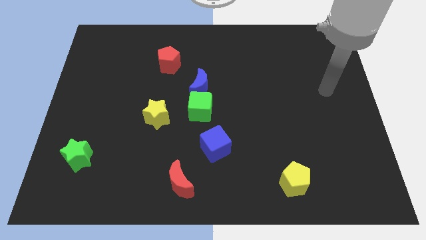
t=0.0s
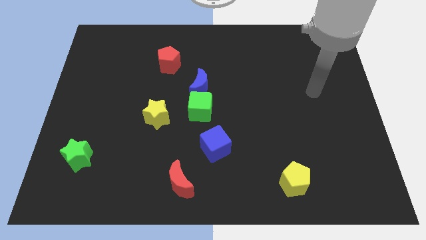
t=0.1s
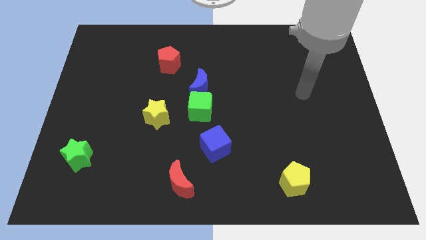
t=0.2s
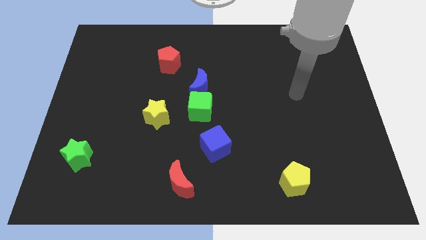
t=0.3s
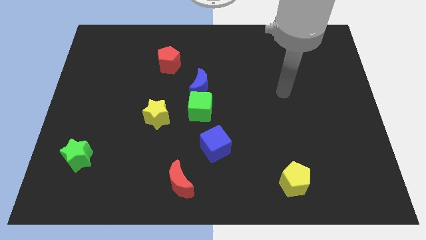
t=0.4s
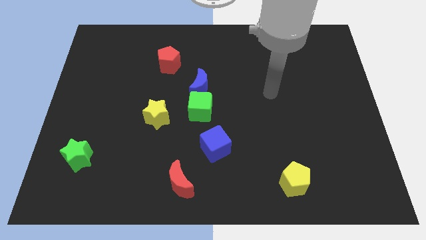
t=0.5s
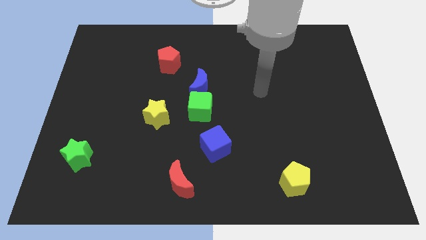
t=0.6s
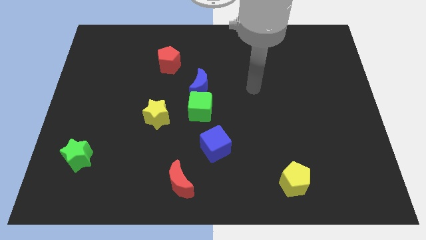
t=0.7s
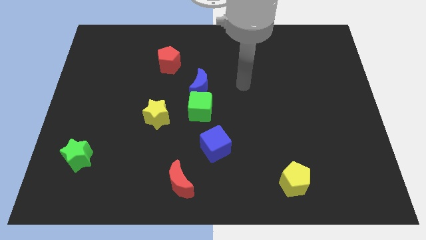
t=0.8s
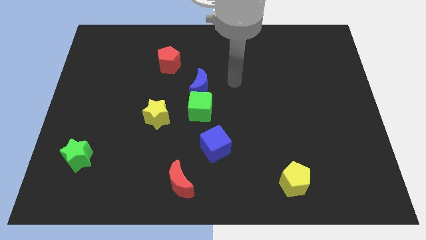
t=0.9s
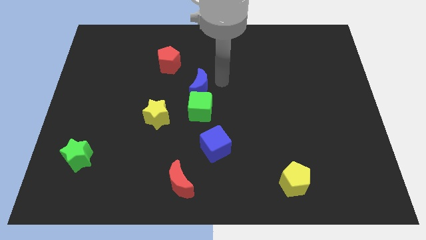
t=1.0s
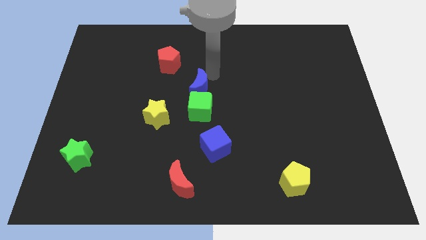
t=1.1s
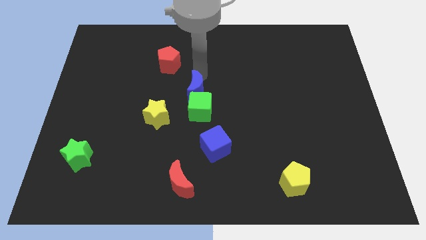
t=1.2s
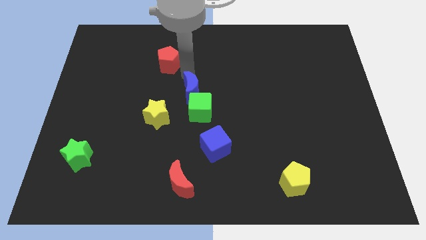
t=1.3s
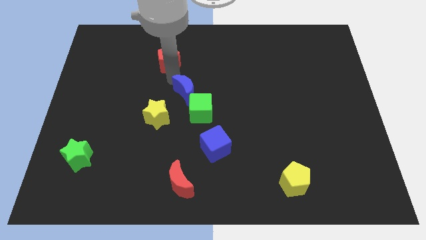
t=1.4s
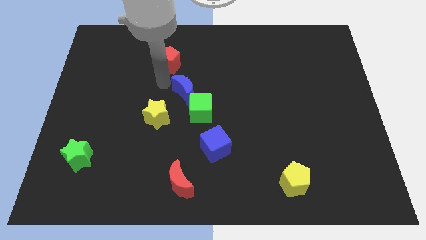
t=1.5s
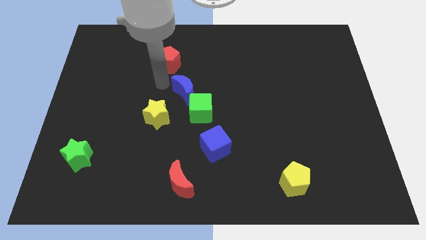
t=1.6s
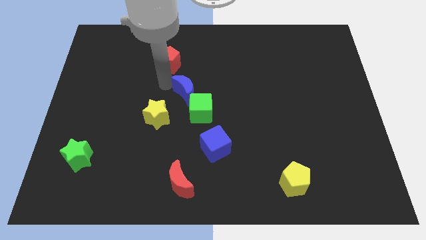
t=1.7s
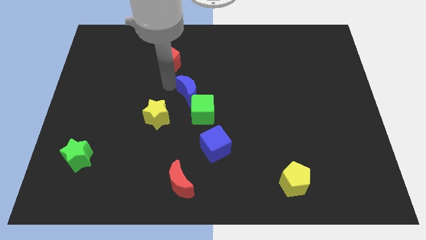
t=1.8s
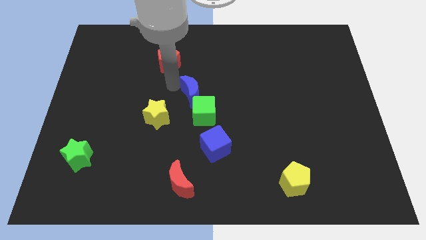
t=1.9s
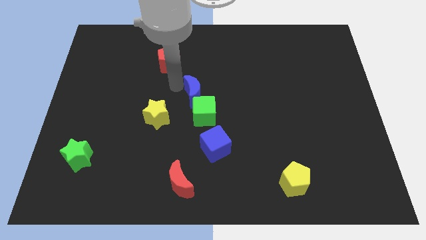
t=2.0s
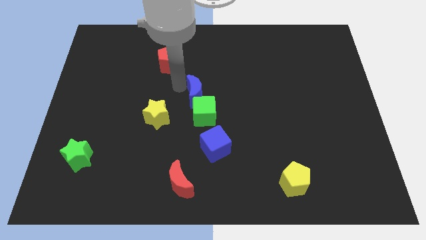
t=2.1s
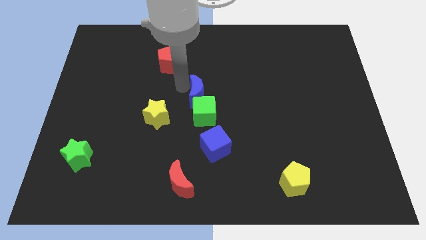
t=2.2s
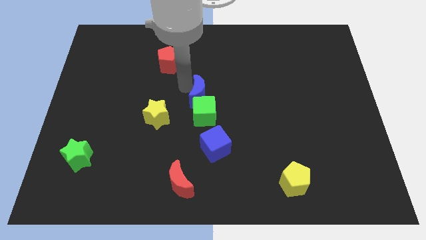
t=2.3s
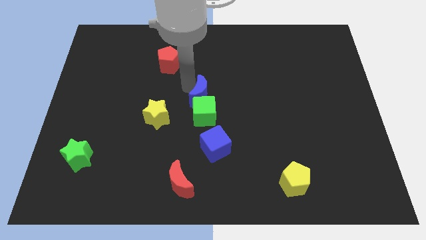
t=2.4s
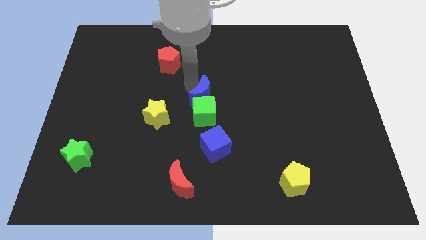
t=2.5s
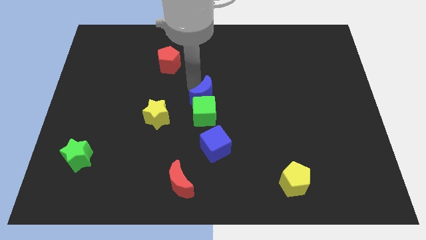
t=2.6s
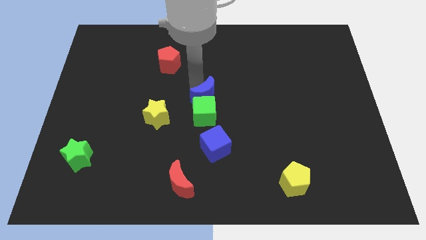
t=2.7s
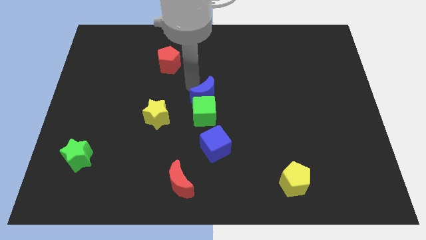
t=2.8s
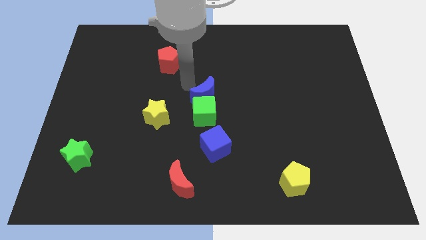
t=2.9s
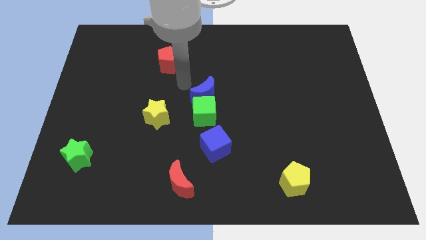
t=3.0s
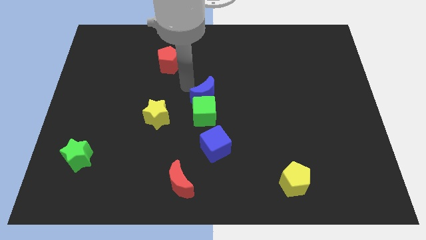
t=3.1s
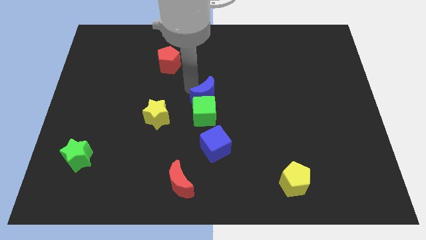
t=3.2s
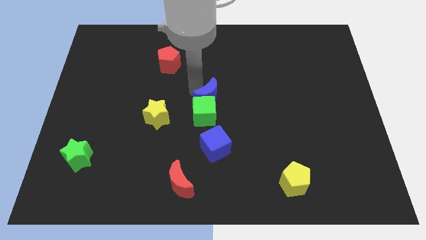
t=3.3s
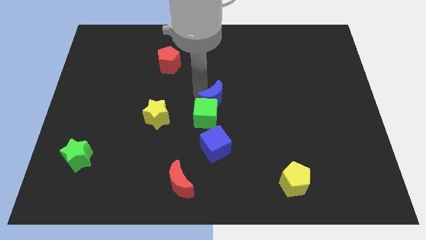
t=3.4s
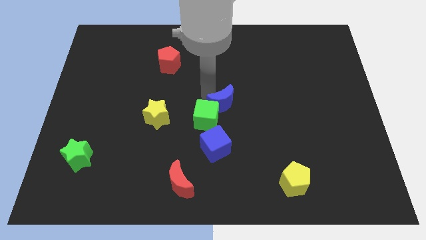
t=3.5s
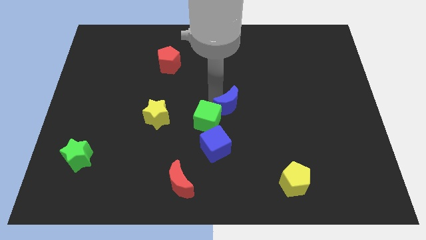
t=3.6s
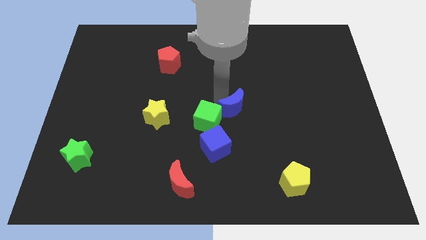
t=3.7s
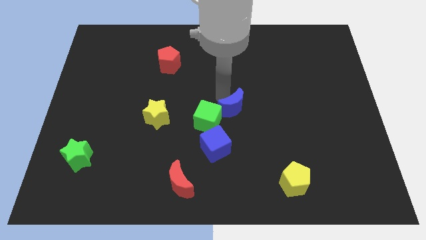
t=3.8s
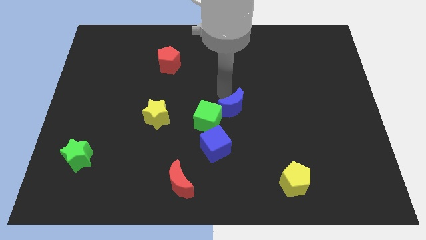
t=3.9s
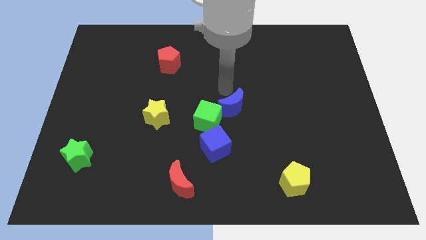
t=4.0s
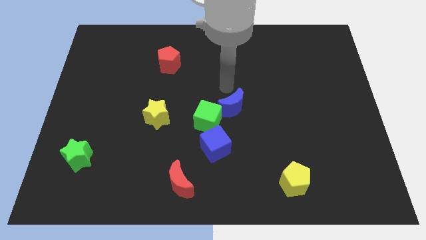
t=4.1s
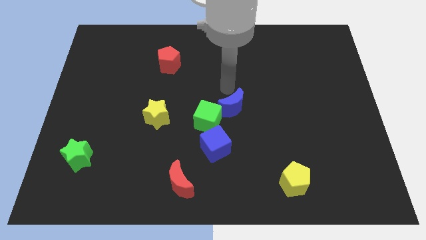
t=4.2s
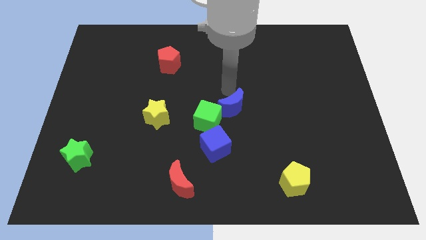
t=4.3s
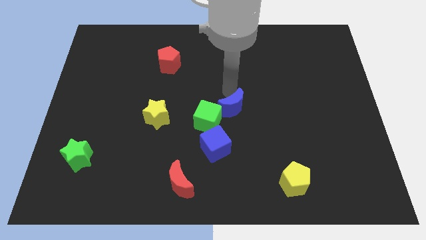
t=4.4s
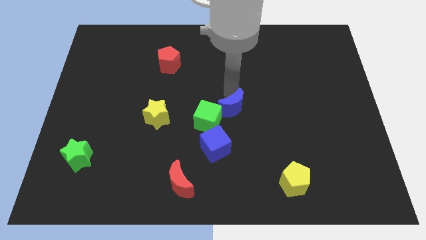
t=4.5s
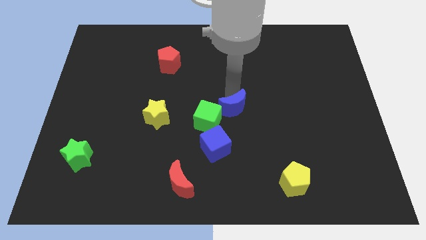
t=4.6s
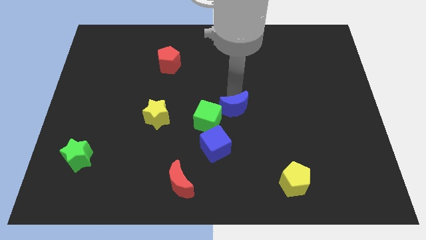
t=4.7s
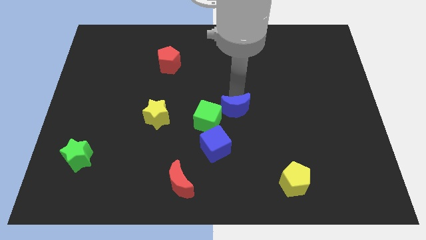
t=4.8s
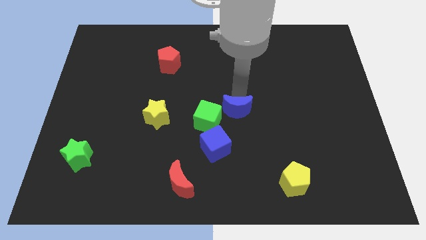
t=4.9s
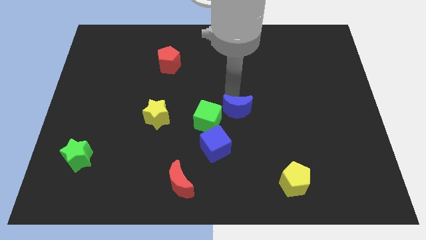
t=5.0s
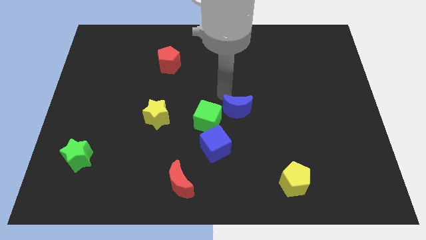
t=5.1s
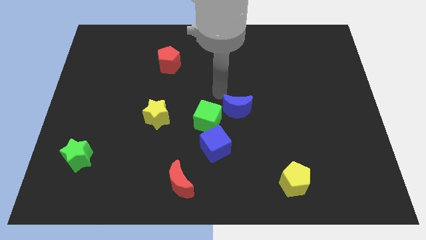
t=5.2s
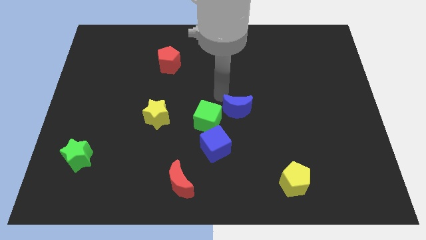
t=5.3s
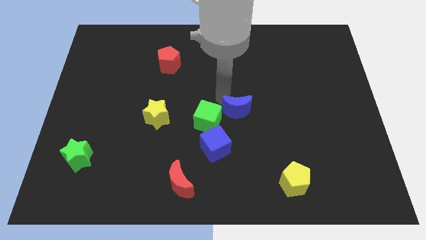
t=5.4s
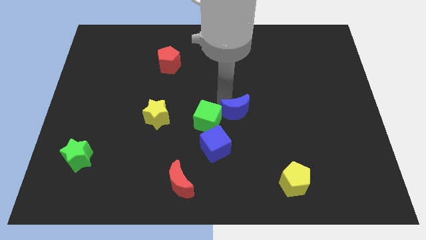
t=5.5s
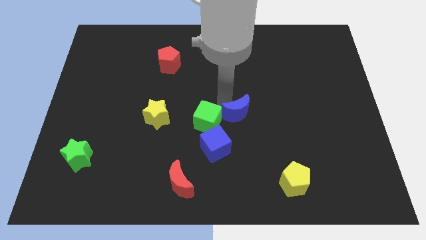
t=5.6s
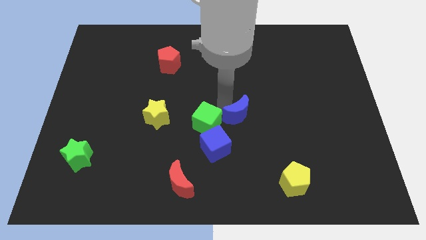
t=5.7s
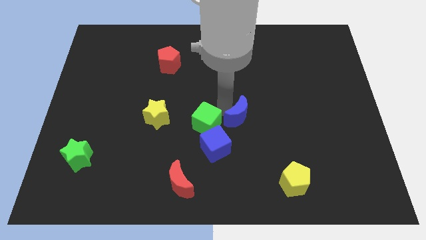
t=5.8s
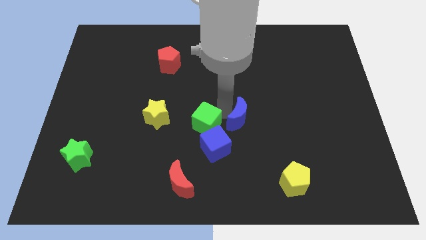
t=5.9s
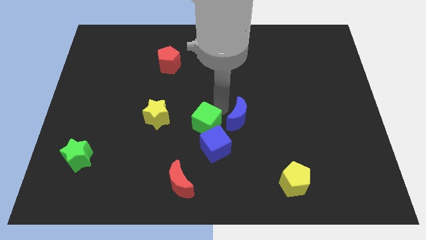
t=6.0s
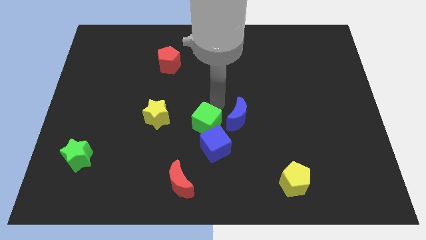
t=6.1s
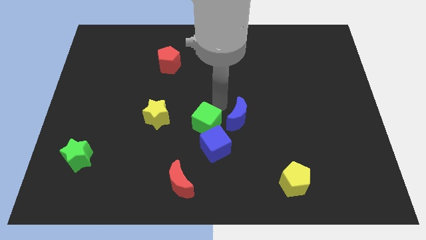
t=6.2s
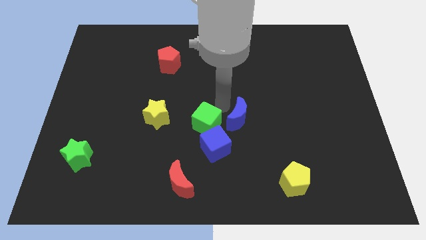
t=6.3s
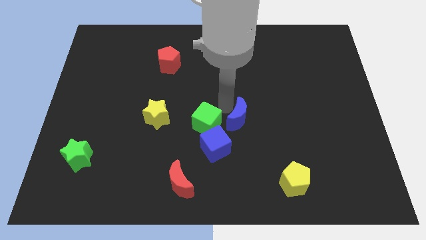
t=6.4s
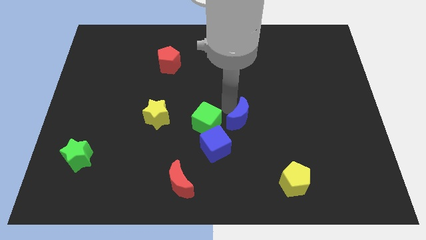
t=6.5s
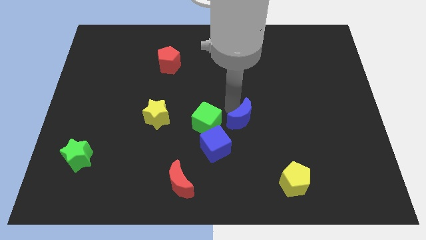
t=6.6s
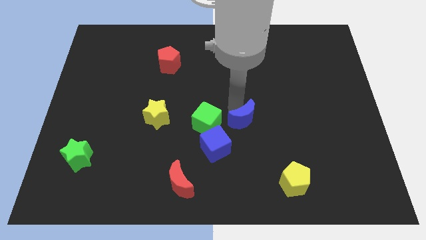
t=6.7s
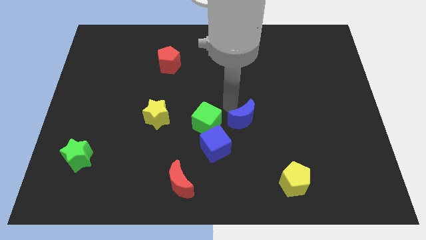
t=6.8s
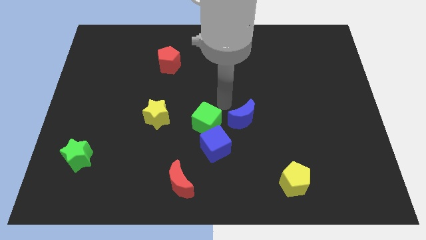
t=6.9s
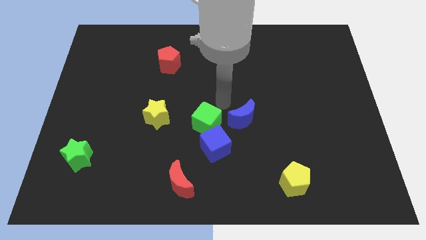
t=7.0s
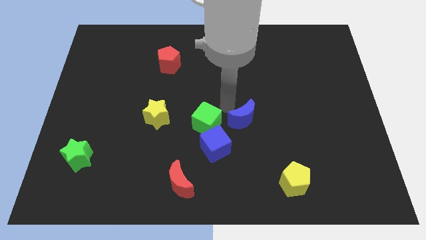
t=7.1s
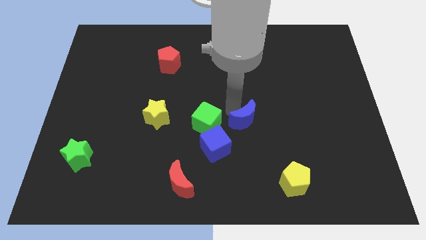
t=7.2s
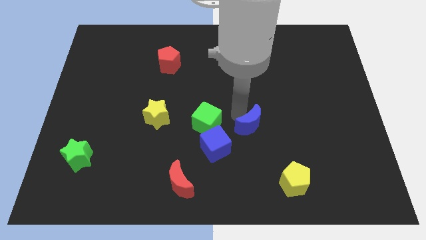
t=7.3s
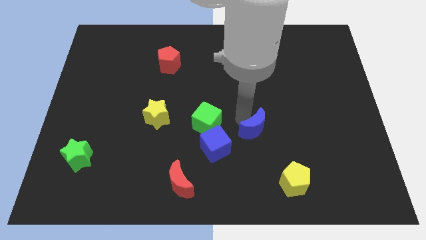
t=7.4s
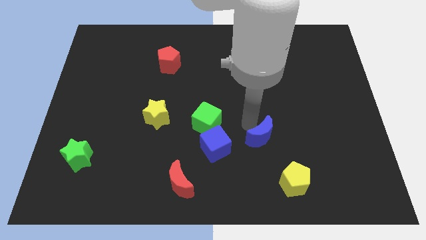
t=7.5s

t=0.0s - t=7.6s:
push the blue moon down and to the right

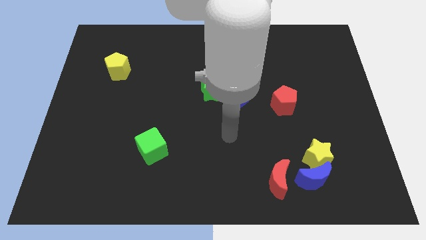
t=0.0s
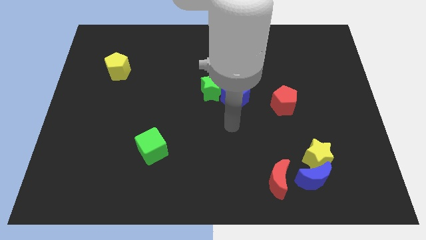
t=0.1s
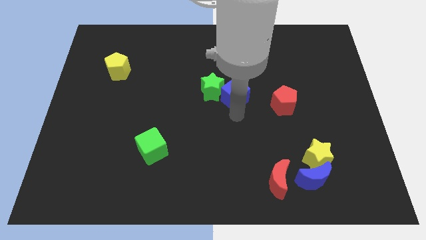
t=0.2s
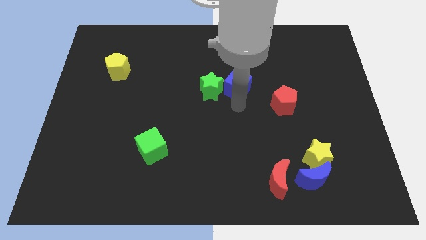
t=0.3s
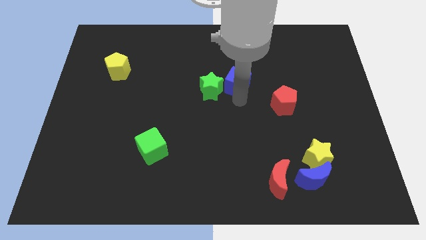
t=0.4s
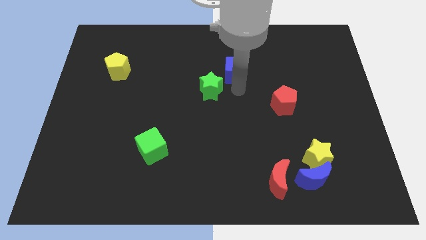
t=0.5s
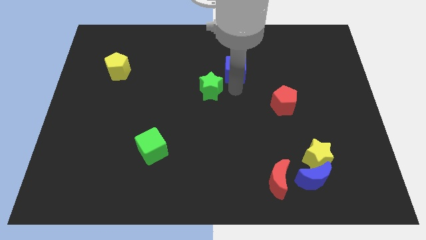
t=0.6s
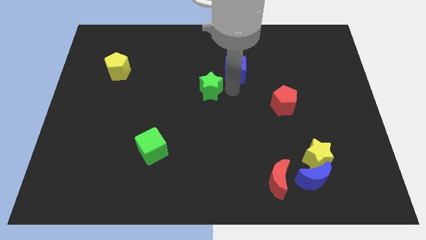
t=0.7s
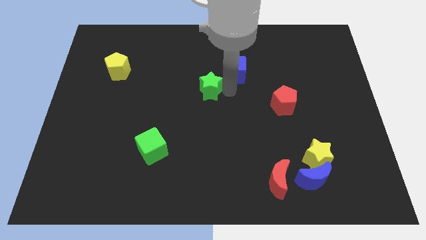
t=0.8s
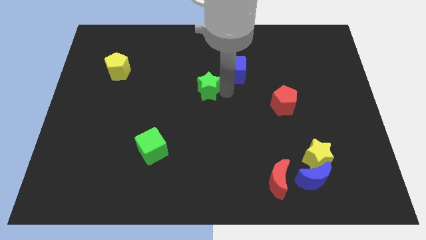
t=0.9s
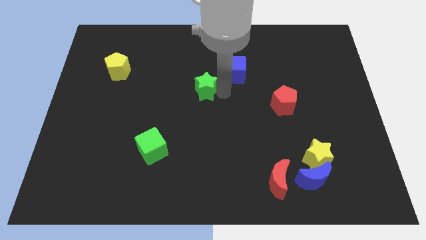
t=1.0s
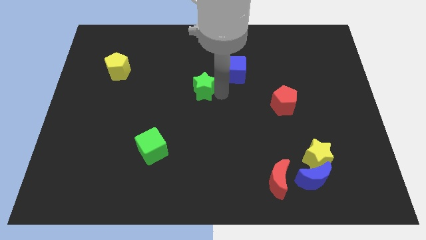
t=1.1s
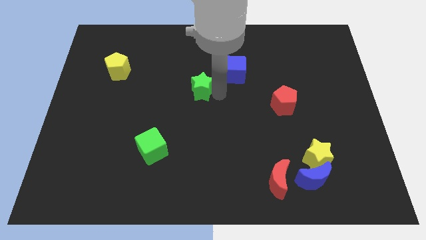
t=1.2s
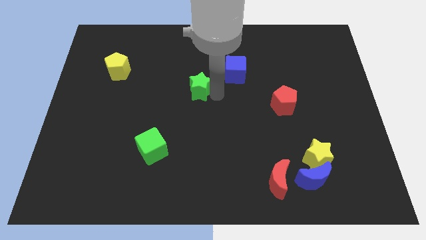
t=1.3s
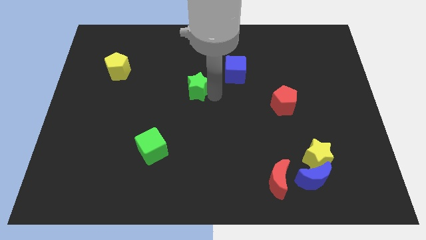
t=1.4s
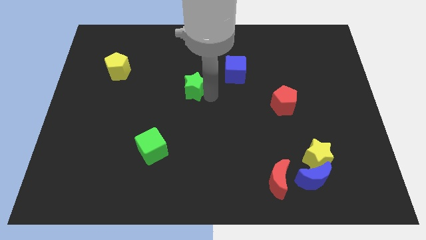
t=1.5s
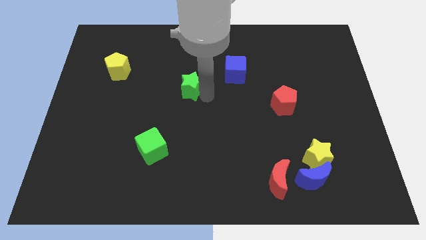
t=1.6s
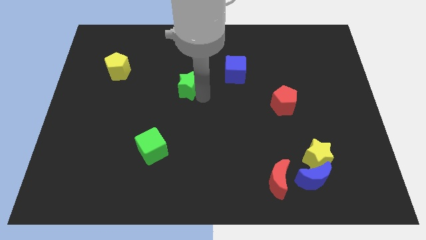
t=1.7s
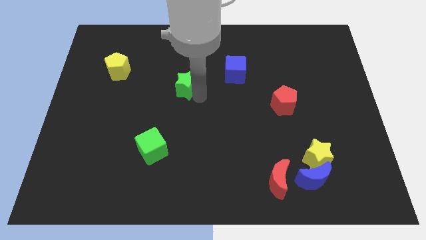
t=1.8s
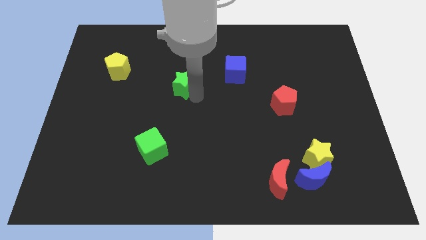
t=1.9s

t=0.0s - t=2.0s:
slightly push the green star to the left
